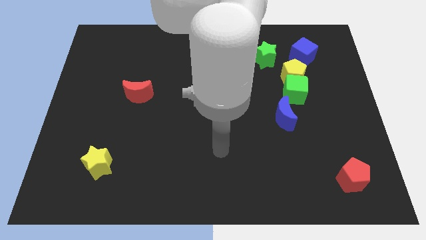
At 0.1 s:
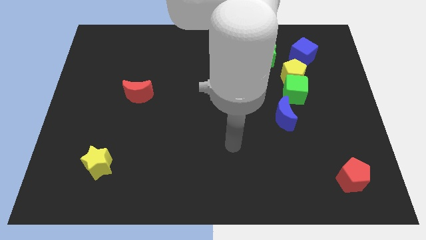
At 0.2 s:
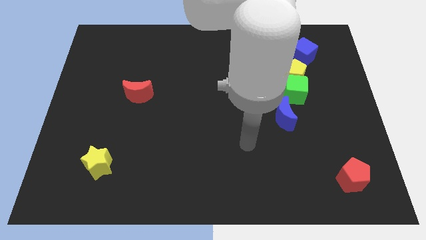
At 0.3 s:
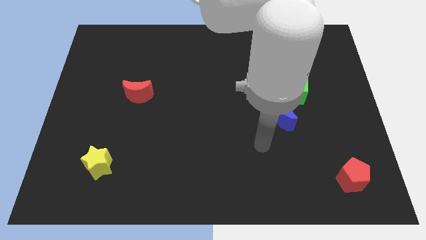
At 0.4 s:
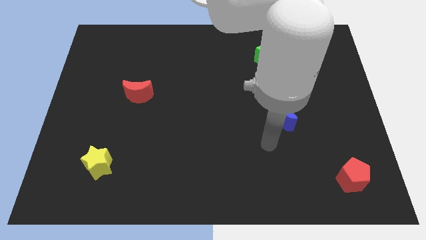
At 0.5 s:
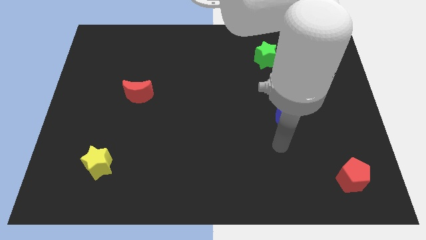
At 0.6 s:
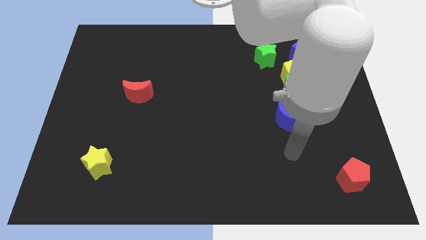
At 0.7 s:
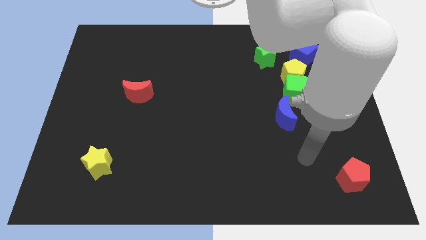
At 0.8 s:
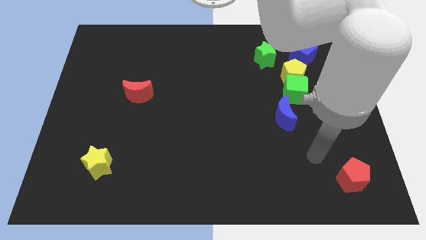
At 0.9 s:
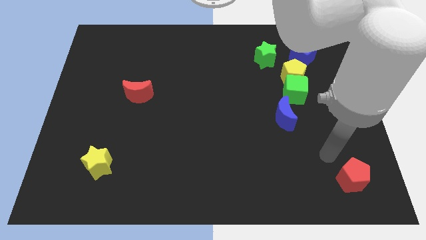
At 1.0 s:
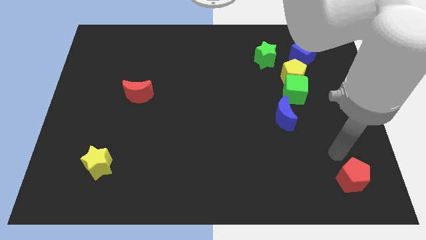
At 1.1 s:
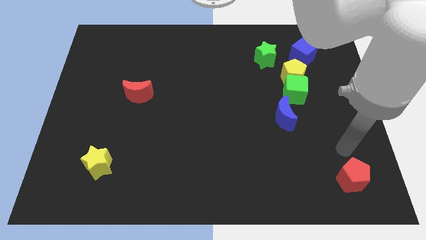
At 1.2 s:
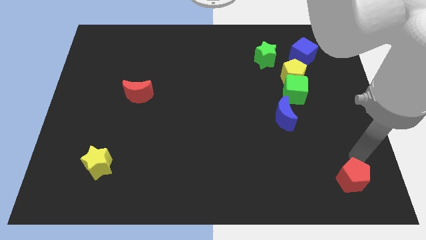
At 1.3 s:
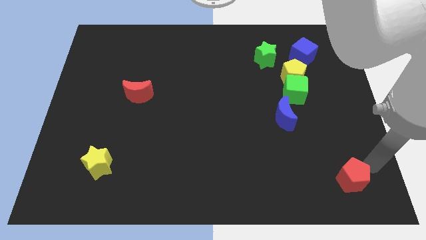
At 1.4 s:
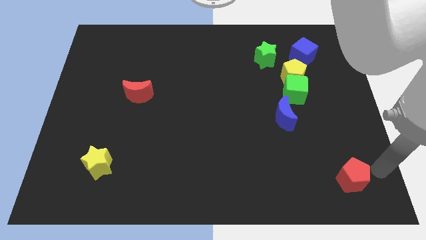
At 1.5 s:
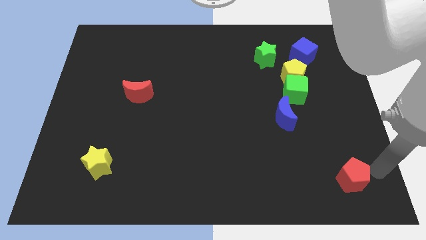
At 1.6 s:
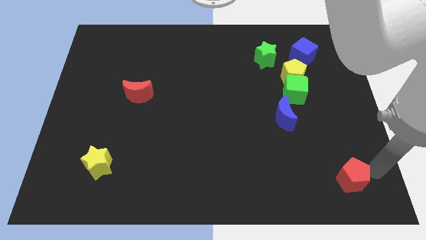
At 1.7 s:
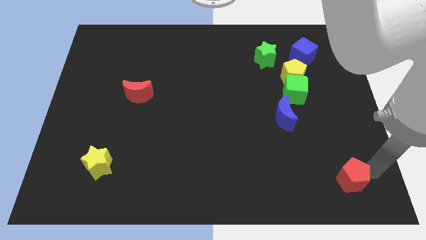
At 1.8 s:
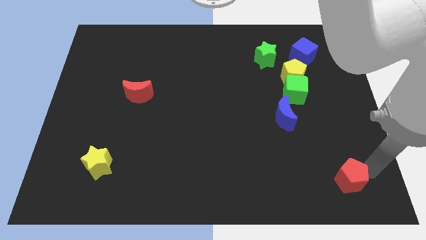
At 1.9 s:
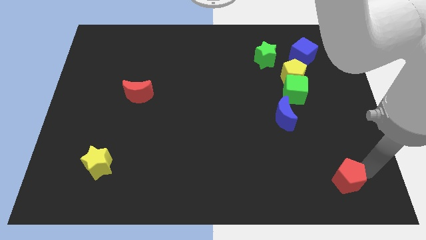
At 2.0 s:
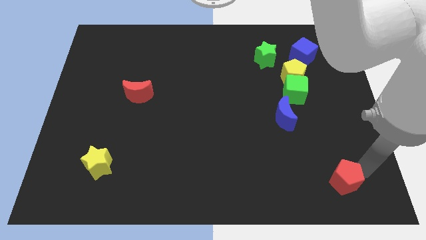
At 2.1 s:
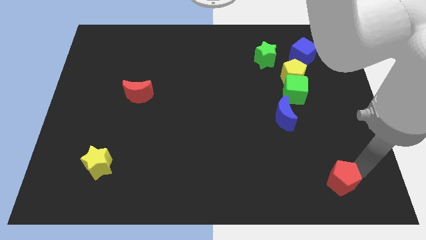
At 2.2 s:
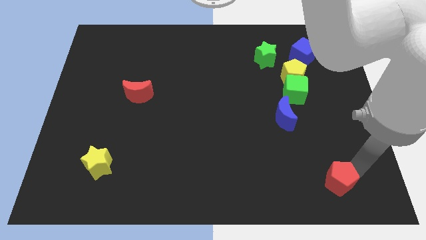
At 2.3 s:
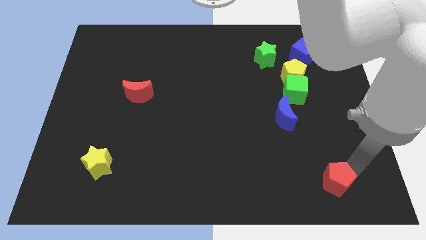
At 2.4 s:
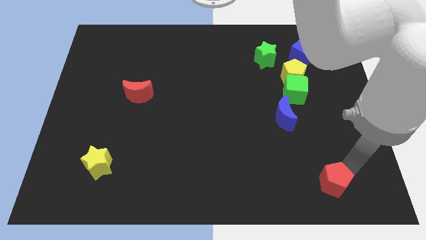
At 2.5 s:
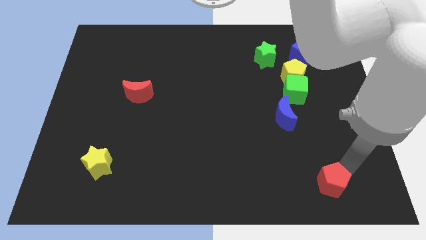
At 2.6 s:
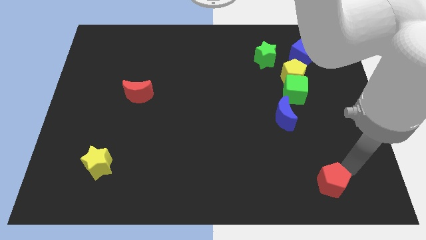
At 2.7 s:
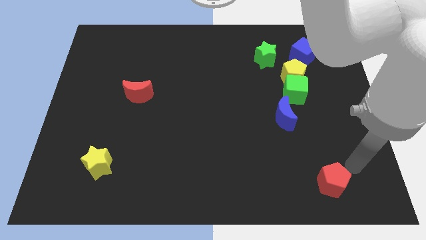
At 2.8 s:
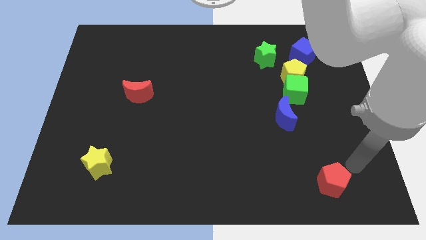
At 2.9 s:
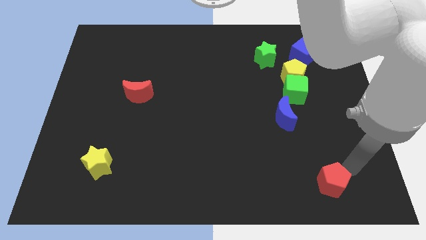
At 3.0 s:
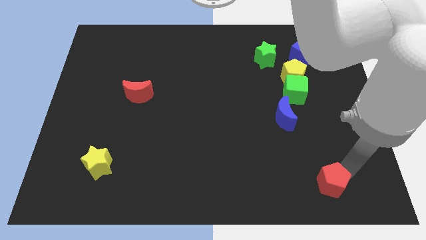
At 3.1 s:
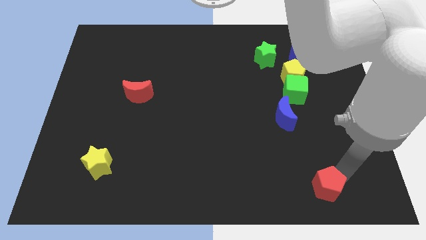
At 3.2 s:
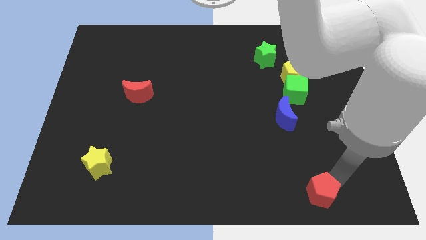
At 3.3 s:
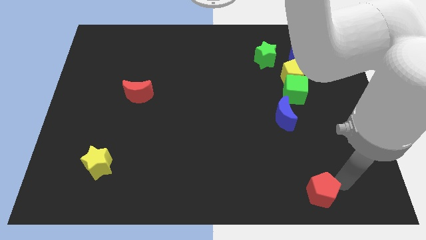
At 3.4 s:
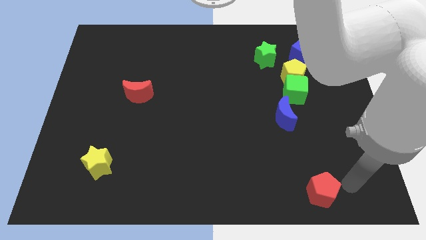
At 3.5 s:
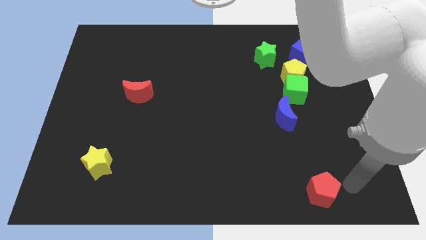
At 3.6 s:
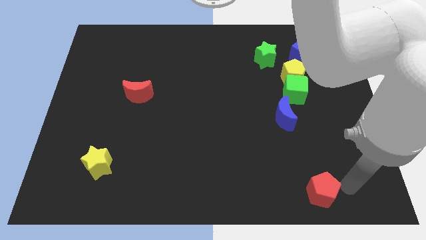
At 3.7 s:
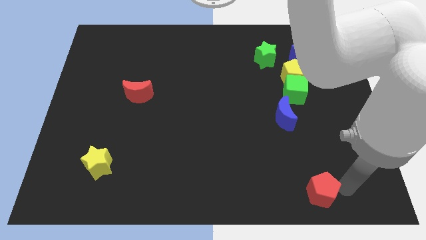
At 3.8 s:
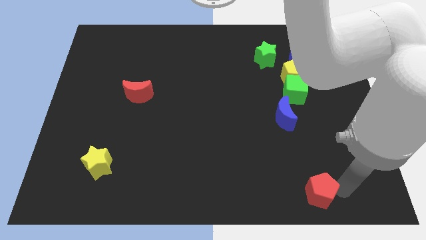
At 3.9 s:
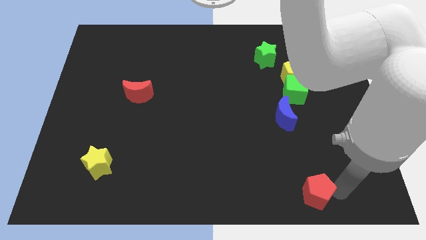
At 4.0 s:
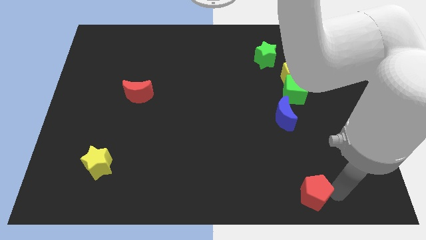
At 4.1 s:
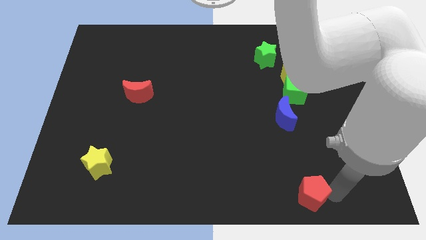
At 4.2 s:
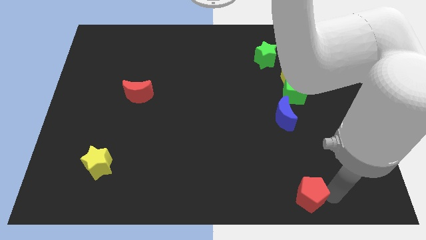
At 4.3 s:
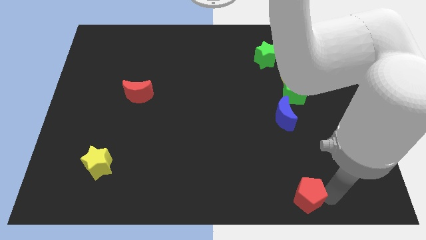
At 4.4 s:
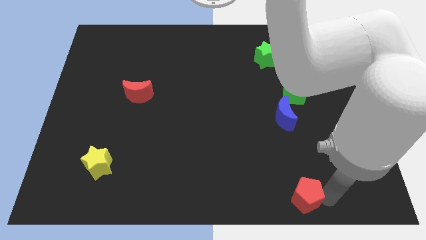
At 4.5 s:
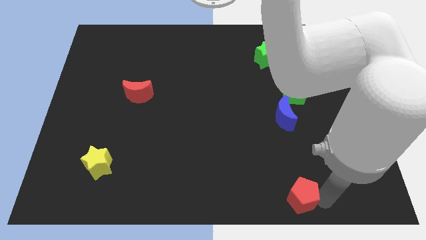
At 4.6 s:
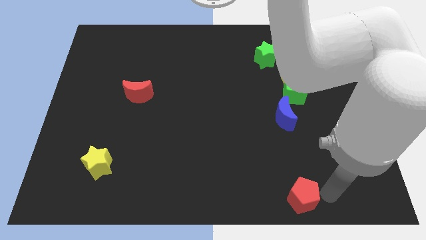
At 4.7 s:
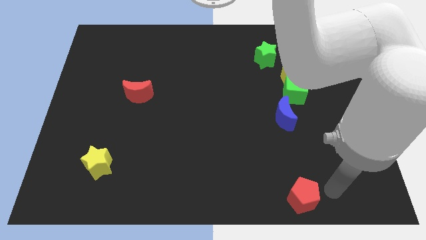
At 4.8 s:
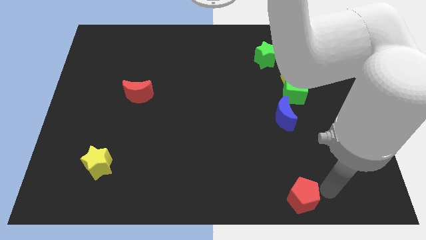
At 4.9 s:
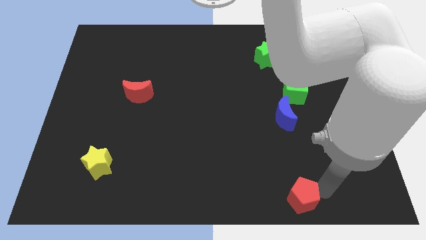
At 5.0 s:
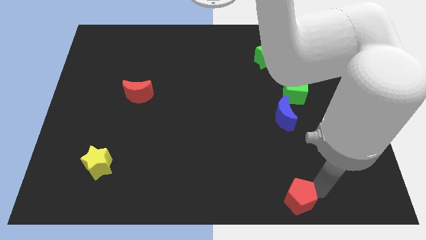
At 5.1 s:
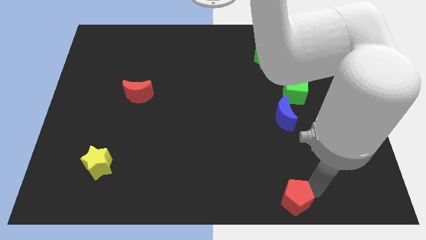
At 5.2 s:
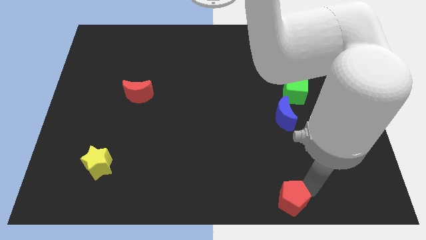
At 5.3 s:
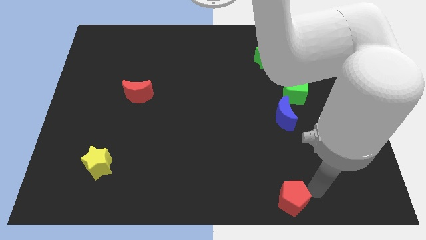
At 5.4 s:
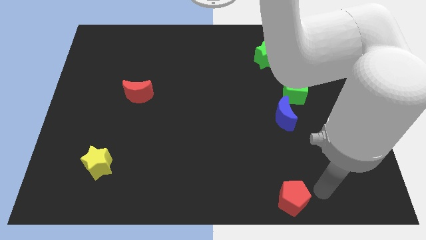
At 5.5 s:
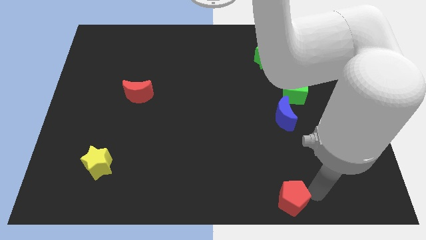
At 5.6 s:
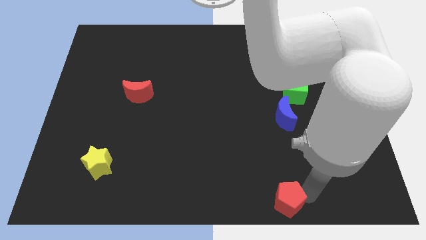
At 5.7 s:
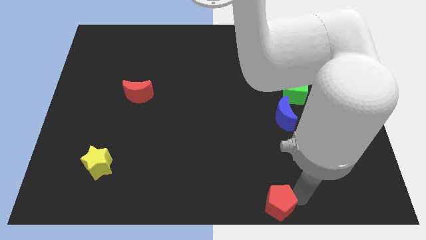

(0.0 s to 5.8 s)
slide the red pentagon to the bottom side

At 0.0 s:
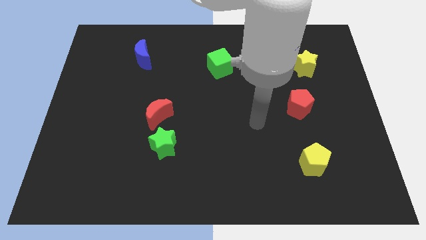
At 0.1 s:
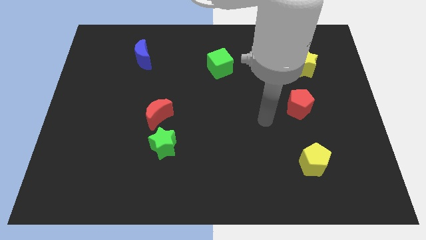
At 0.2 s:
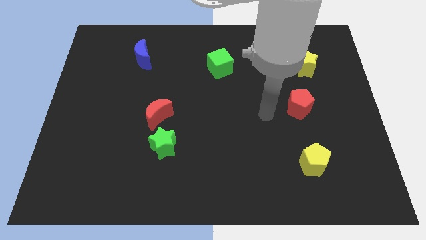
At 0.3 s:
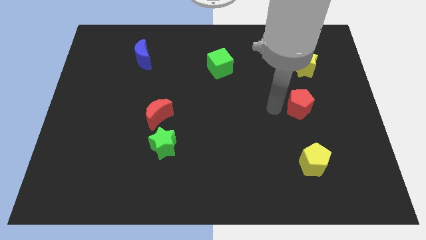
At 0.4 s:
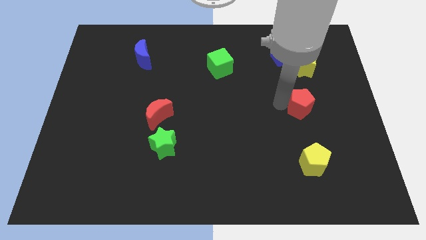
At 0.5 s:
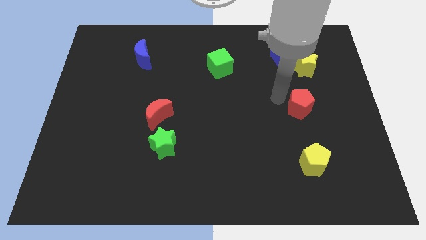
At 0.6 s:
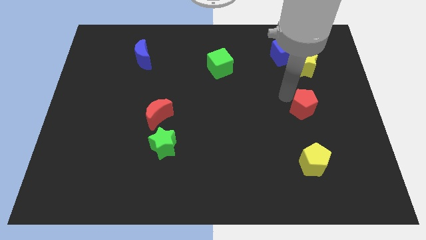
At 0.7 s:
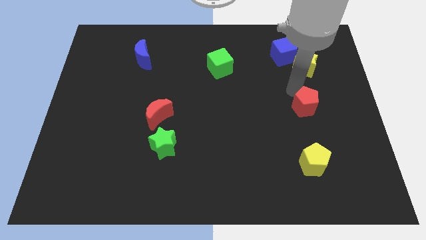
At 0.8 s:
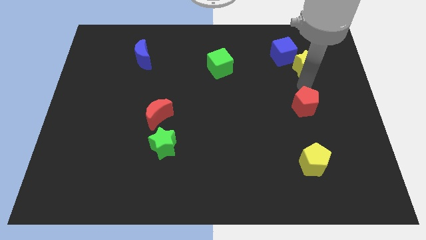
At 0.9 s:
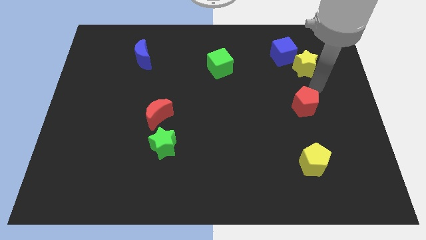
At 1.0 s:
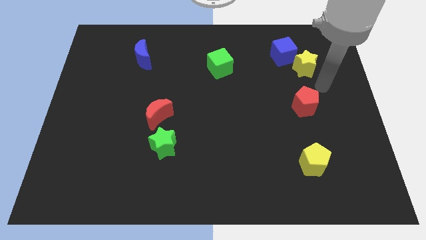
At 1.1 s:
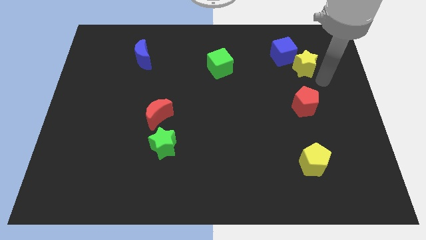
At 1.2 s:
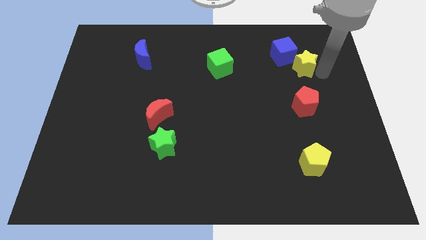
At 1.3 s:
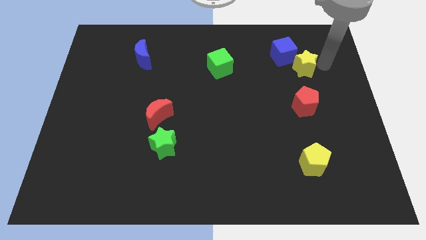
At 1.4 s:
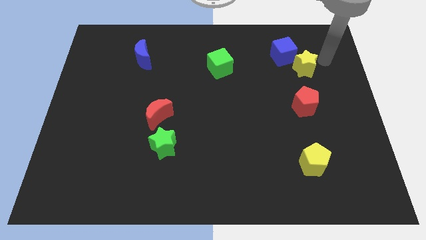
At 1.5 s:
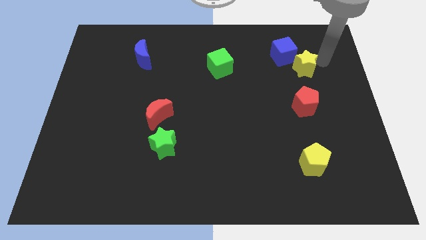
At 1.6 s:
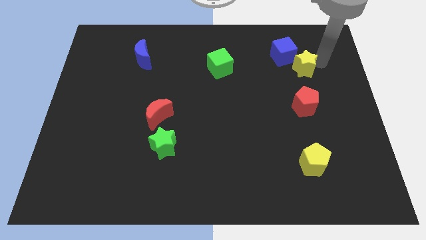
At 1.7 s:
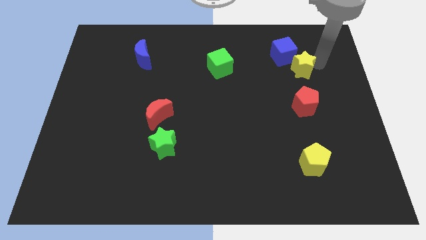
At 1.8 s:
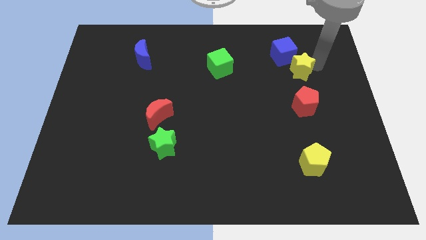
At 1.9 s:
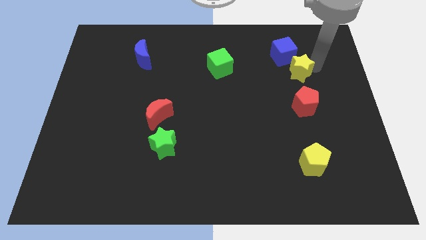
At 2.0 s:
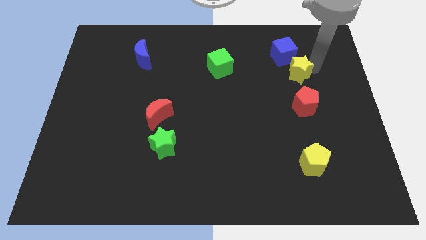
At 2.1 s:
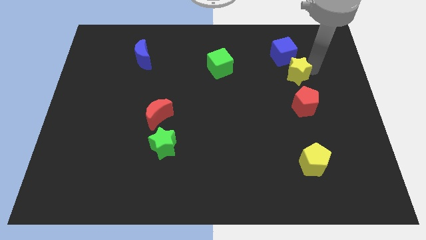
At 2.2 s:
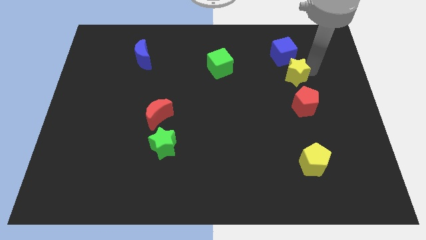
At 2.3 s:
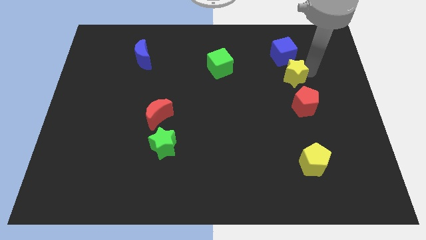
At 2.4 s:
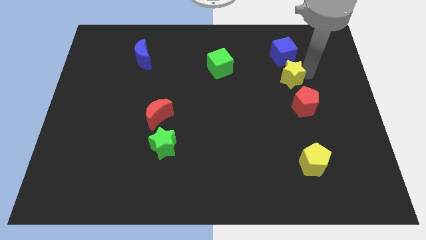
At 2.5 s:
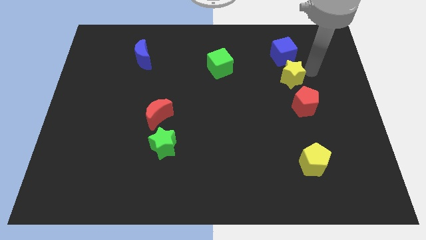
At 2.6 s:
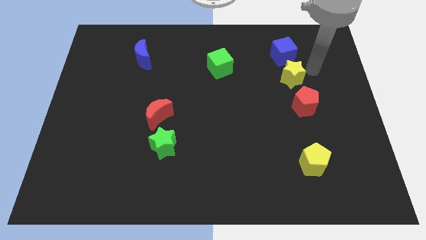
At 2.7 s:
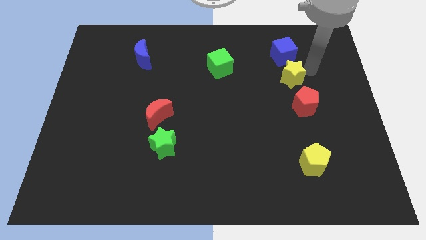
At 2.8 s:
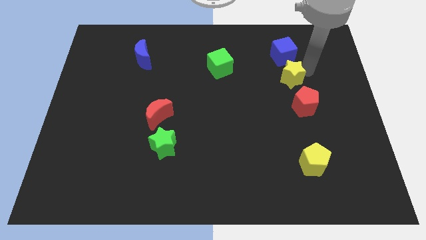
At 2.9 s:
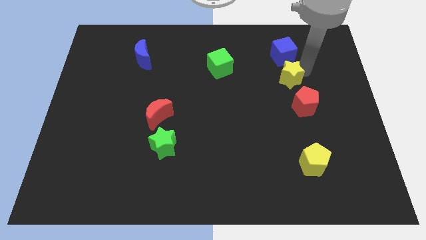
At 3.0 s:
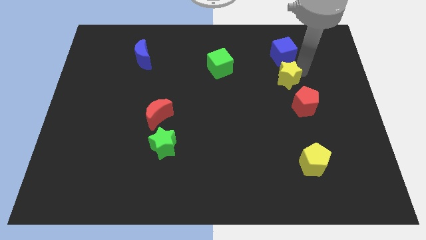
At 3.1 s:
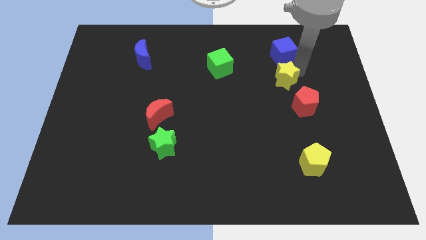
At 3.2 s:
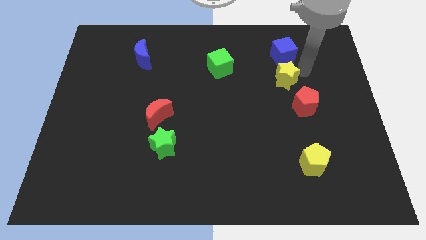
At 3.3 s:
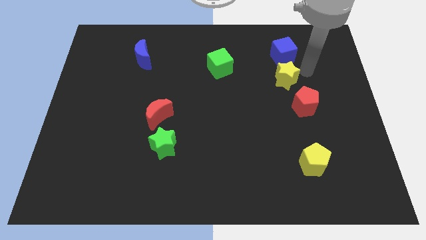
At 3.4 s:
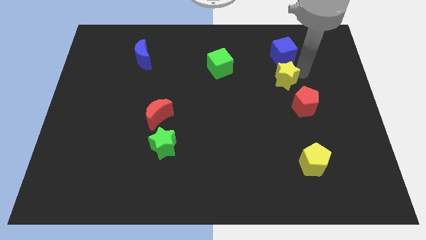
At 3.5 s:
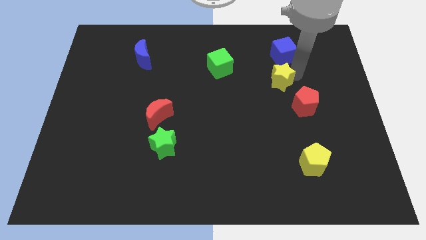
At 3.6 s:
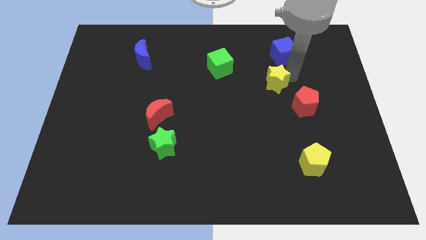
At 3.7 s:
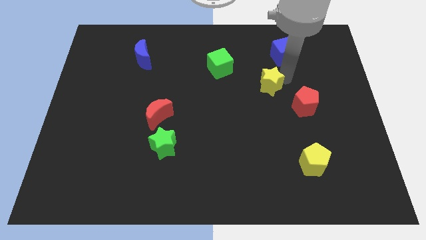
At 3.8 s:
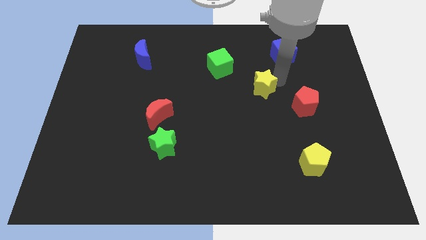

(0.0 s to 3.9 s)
put the yellow star to the center
